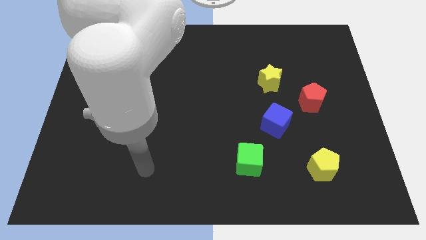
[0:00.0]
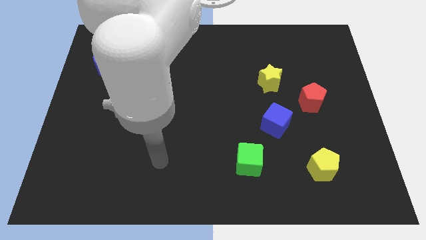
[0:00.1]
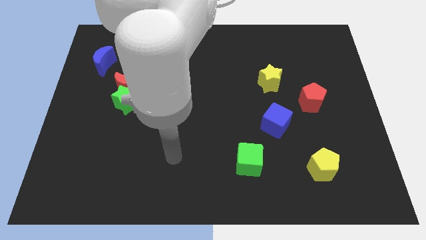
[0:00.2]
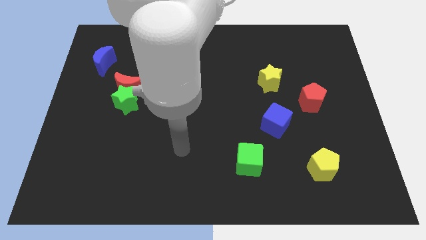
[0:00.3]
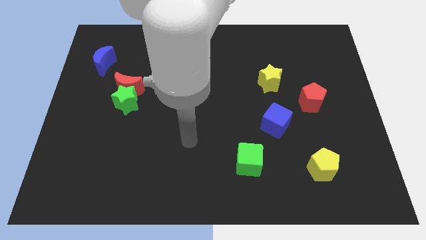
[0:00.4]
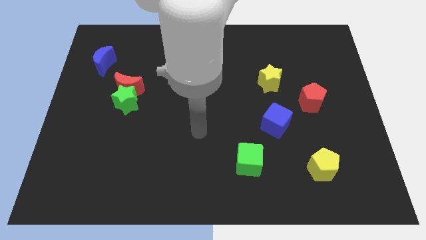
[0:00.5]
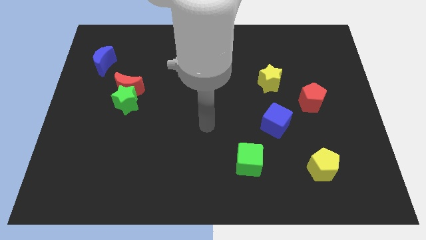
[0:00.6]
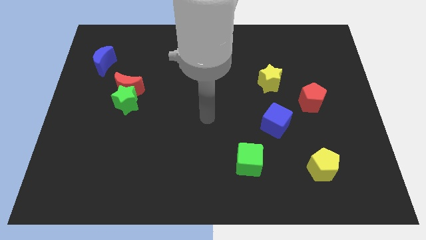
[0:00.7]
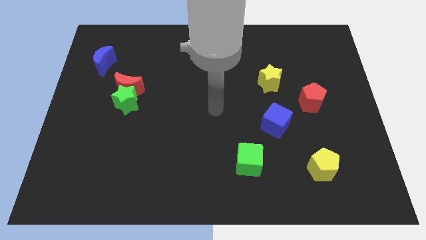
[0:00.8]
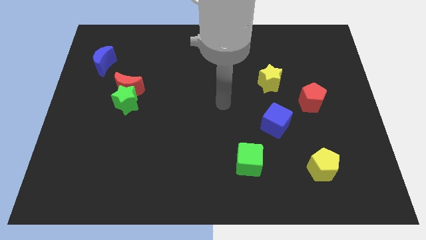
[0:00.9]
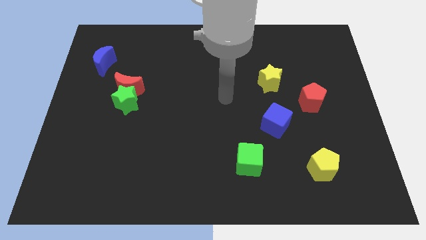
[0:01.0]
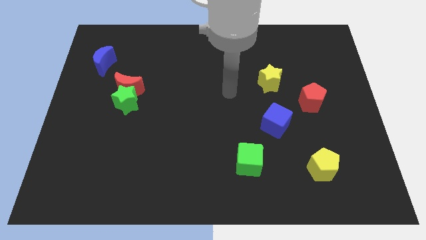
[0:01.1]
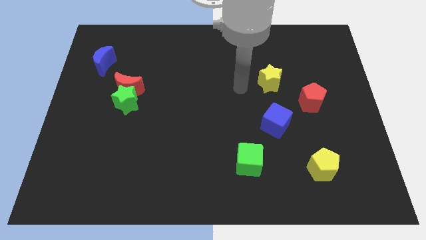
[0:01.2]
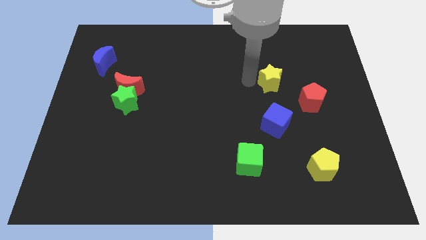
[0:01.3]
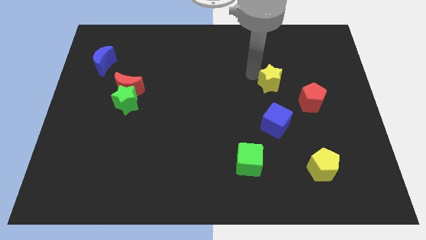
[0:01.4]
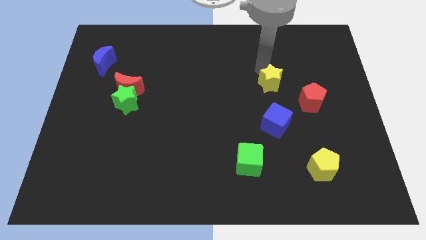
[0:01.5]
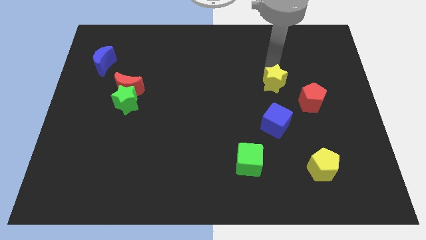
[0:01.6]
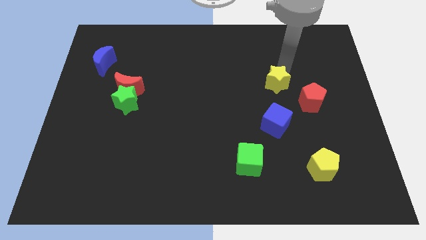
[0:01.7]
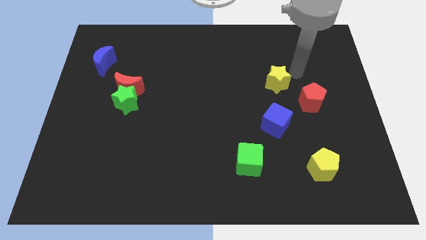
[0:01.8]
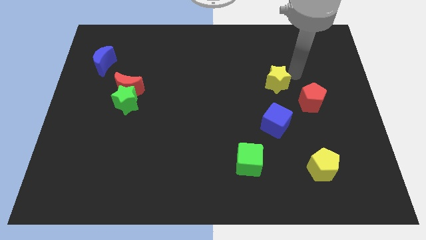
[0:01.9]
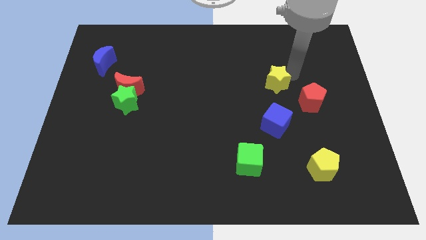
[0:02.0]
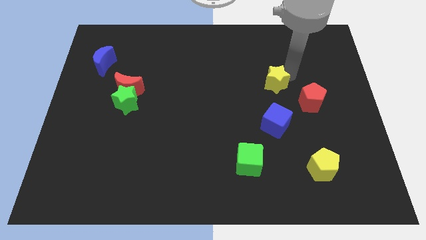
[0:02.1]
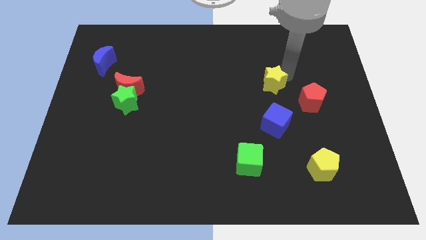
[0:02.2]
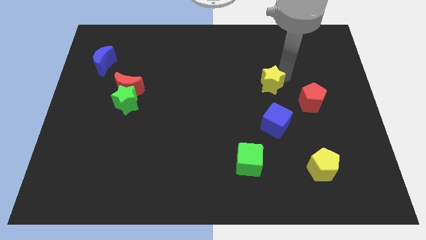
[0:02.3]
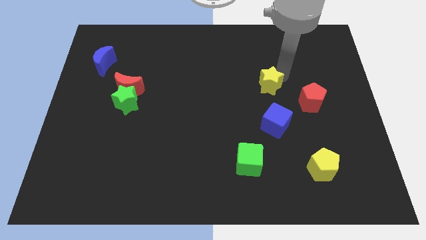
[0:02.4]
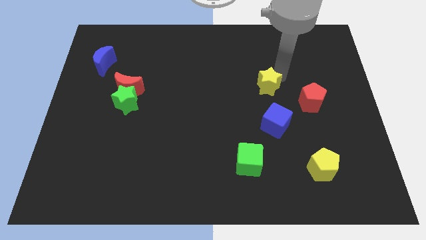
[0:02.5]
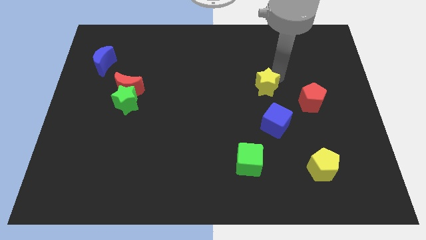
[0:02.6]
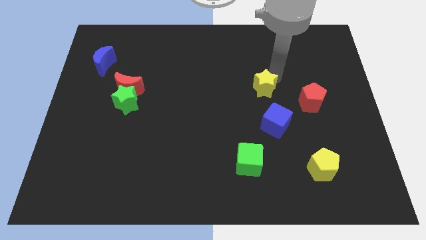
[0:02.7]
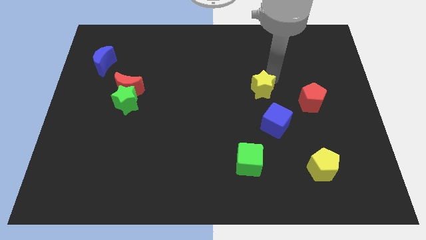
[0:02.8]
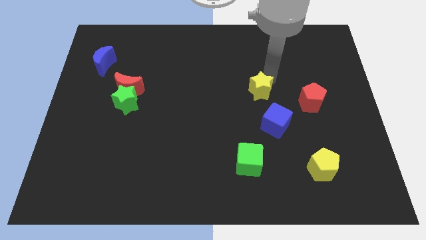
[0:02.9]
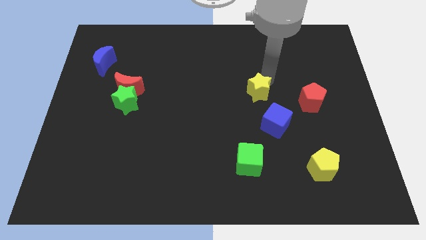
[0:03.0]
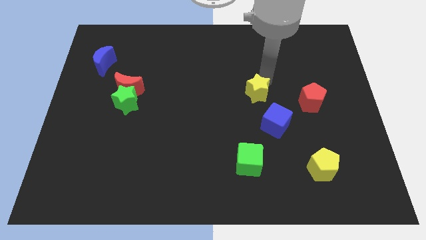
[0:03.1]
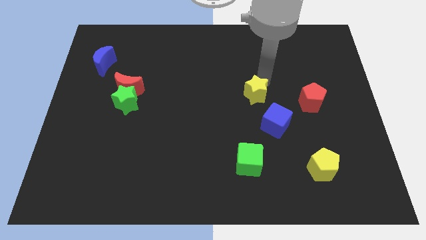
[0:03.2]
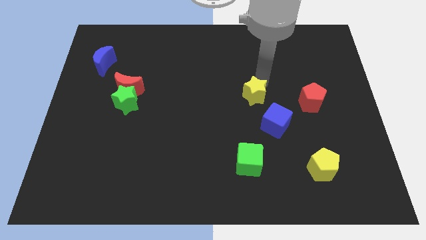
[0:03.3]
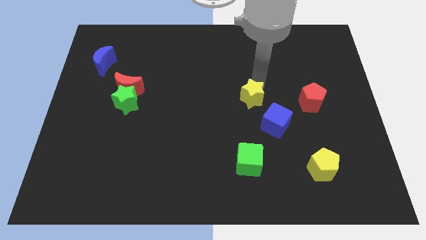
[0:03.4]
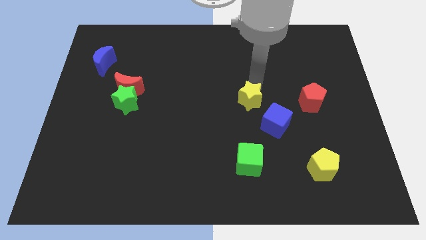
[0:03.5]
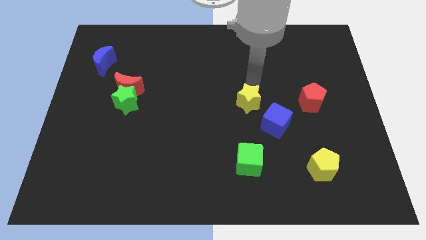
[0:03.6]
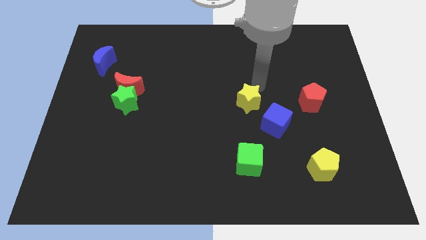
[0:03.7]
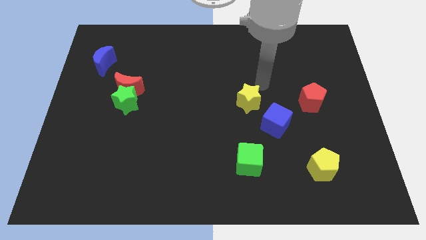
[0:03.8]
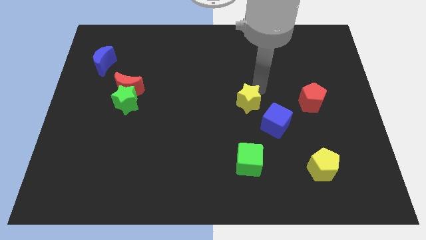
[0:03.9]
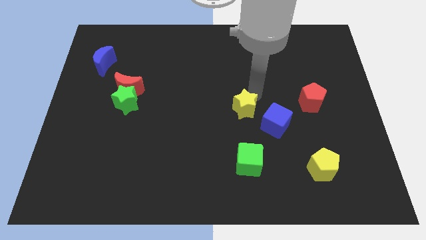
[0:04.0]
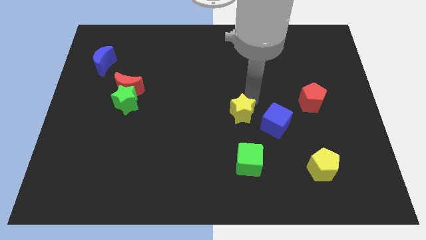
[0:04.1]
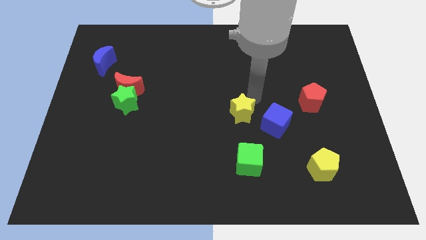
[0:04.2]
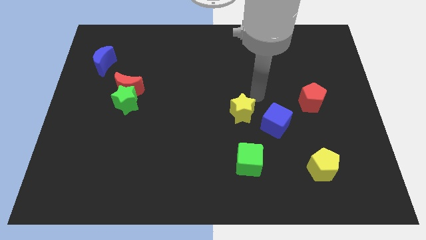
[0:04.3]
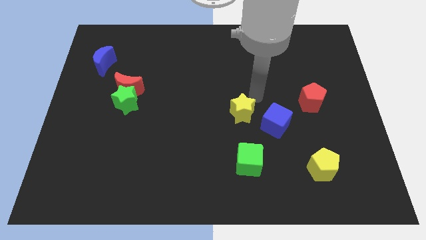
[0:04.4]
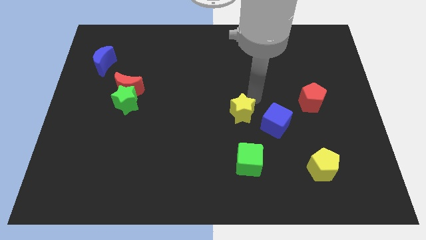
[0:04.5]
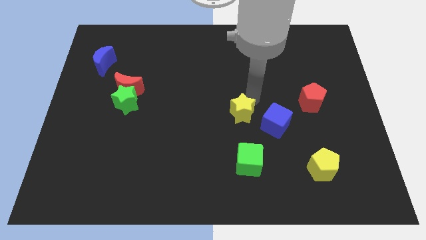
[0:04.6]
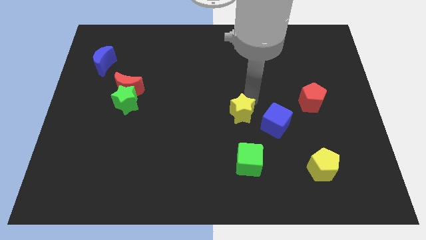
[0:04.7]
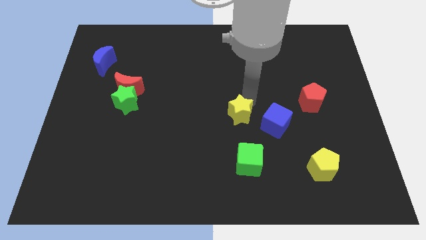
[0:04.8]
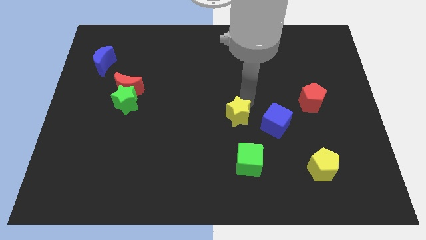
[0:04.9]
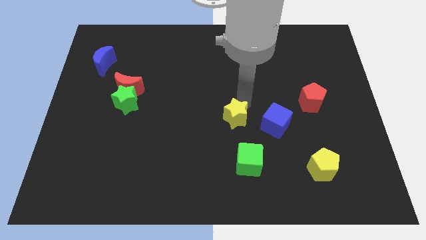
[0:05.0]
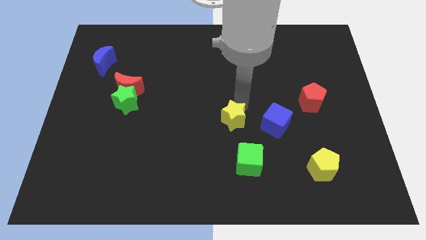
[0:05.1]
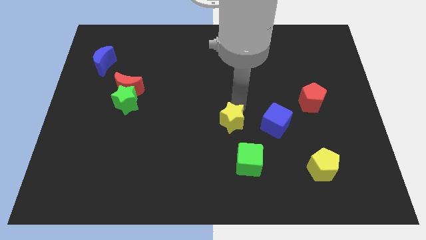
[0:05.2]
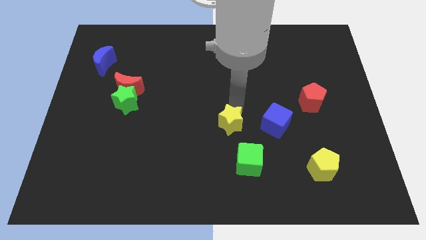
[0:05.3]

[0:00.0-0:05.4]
push the yellow star to the top left side of the green cube

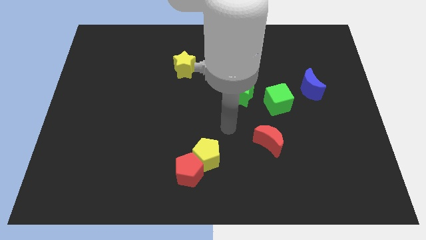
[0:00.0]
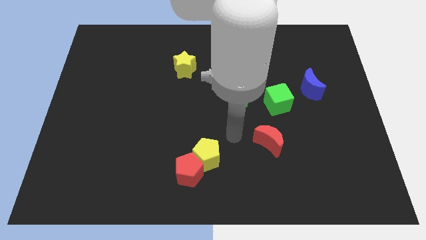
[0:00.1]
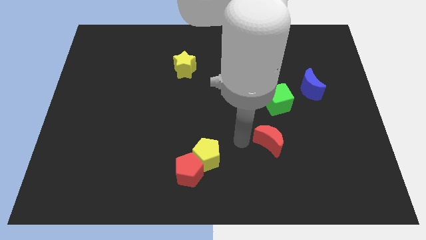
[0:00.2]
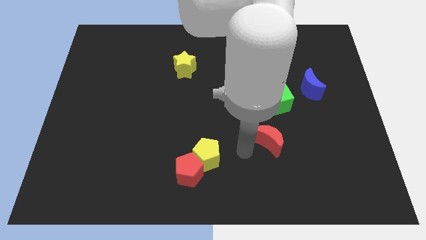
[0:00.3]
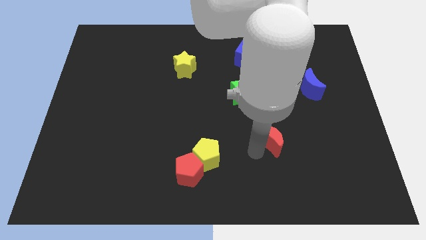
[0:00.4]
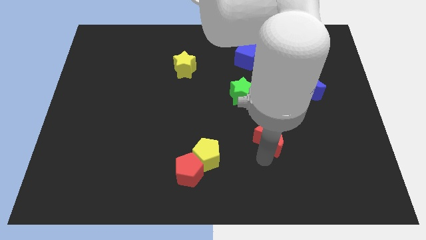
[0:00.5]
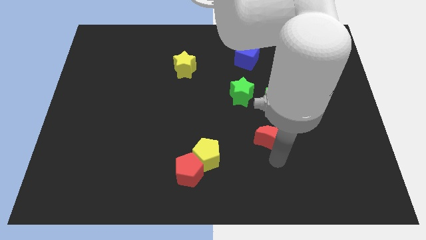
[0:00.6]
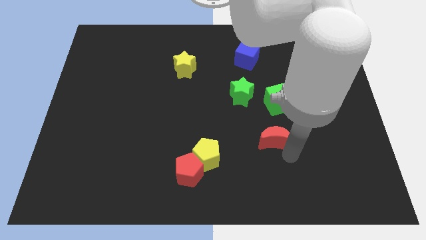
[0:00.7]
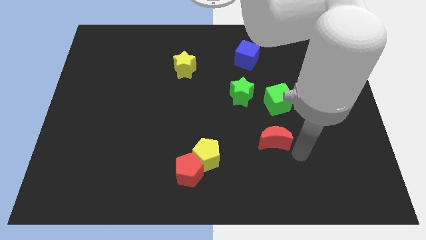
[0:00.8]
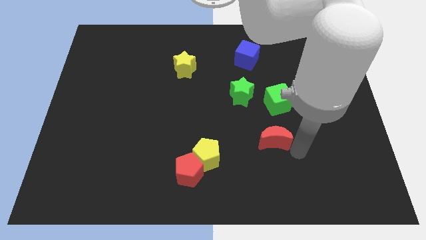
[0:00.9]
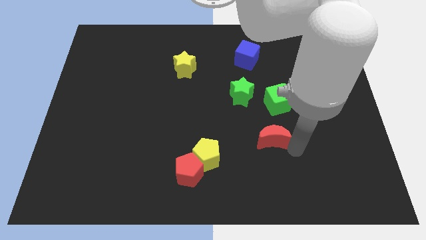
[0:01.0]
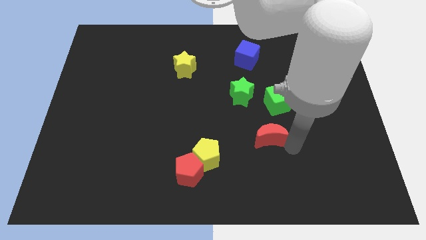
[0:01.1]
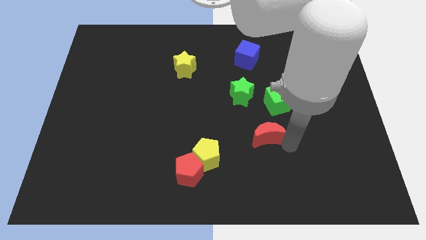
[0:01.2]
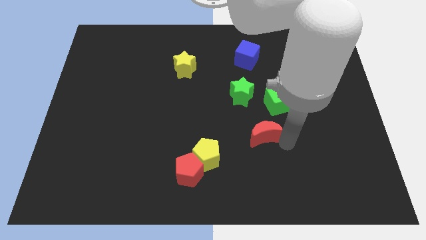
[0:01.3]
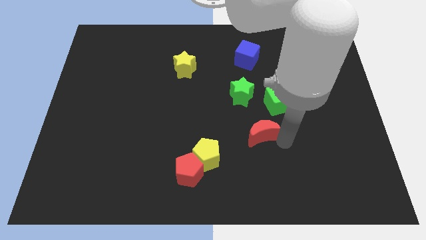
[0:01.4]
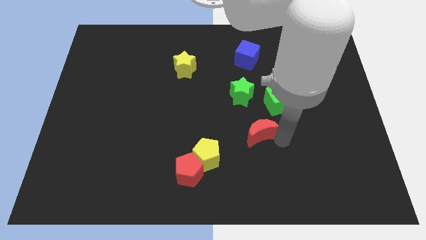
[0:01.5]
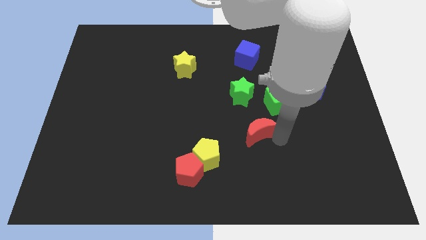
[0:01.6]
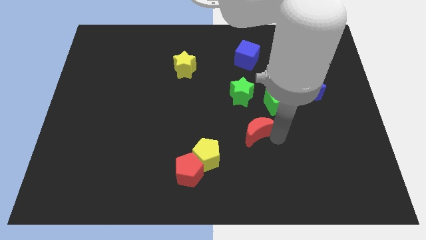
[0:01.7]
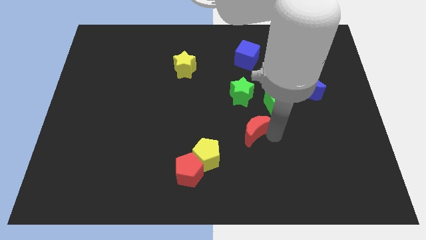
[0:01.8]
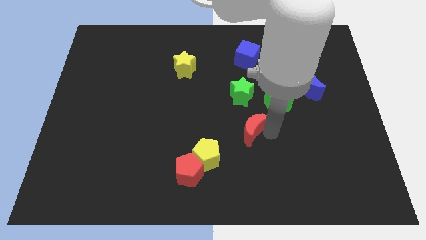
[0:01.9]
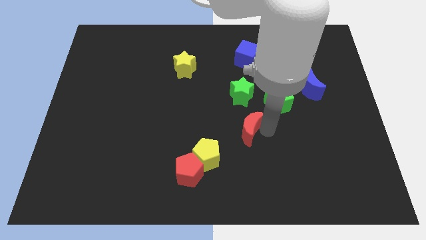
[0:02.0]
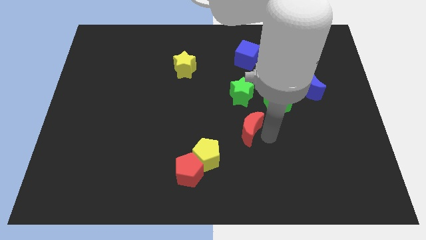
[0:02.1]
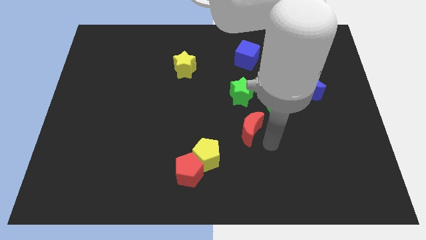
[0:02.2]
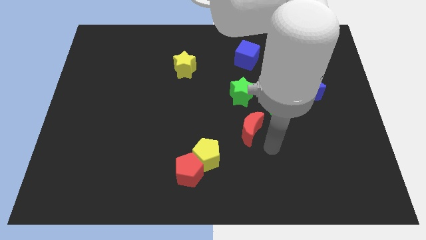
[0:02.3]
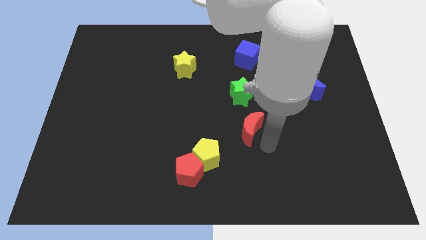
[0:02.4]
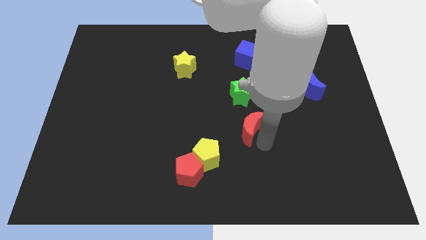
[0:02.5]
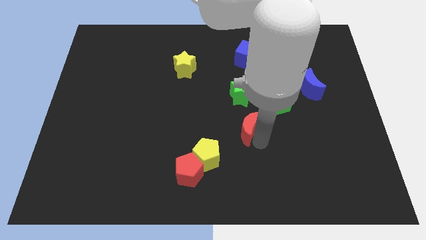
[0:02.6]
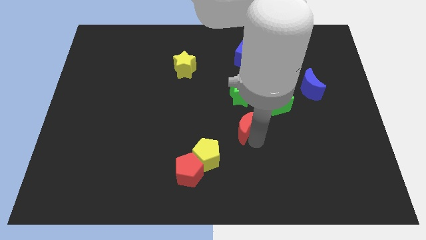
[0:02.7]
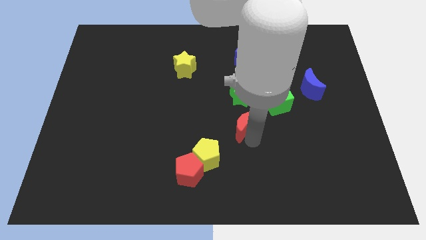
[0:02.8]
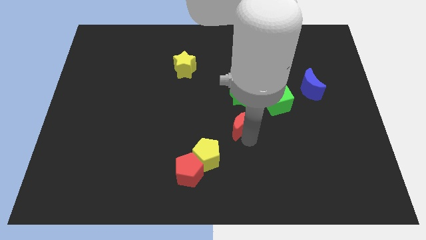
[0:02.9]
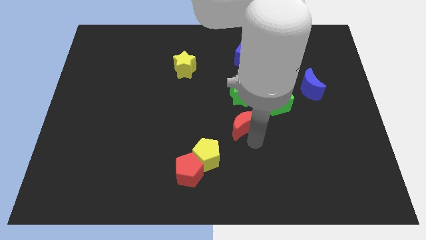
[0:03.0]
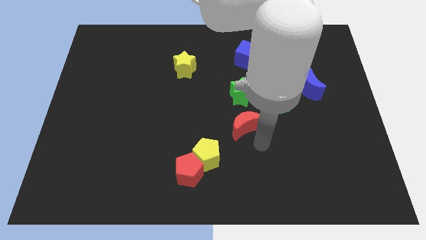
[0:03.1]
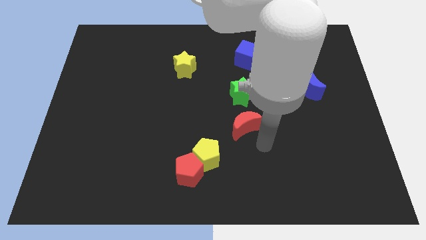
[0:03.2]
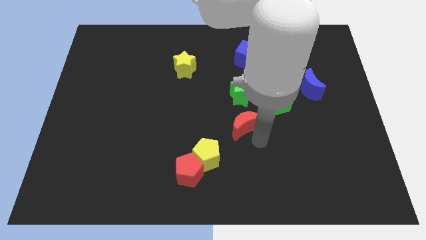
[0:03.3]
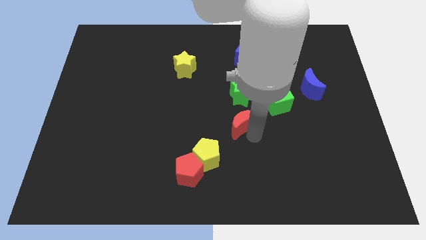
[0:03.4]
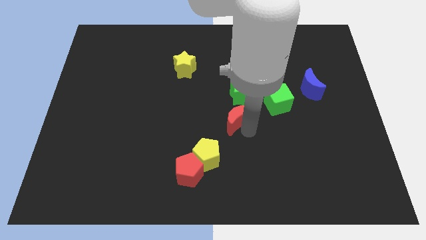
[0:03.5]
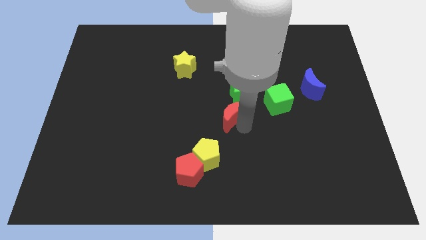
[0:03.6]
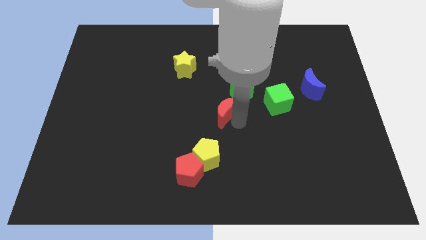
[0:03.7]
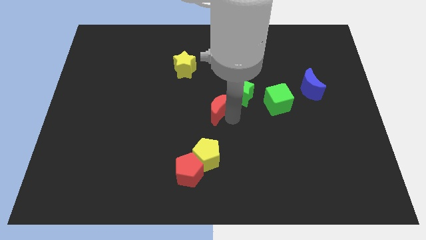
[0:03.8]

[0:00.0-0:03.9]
slide the red moon to the left of the green star
